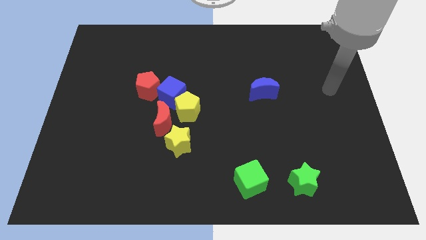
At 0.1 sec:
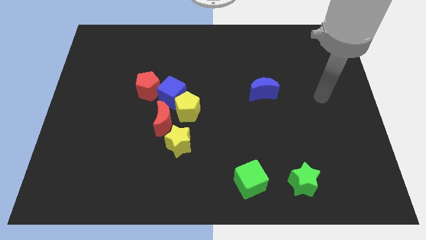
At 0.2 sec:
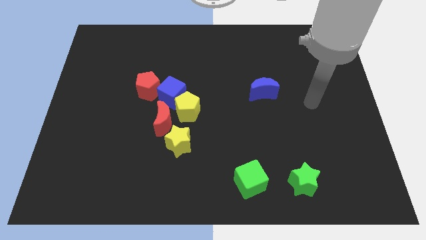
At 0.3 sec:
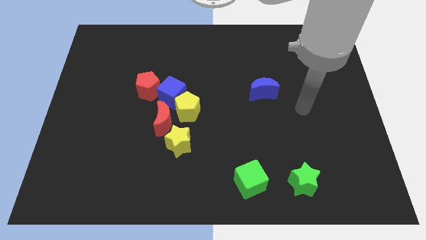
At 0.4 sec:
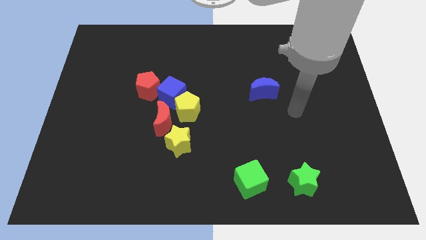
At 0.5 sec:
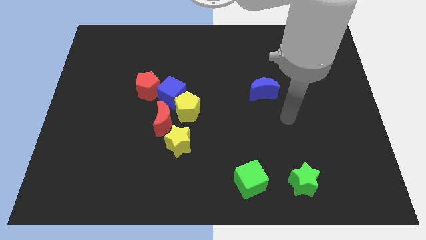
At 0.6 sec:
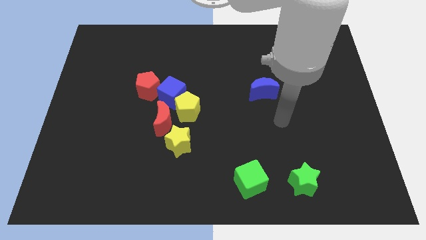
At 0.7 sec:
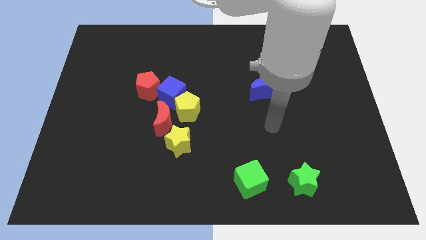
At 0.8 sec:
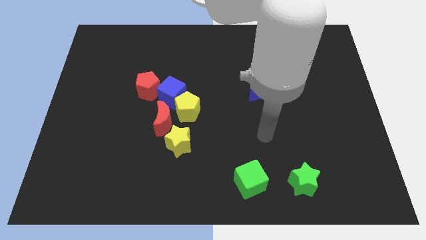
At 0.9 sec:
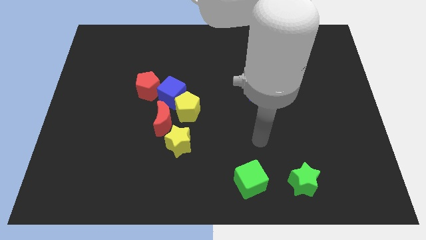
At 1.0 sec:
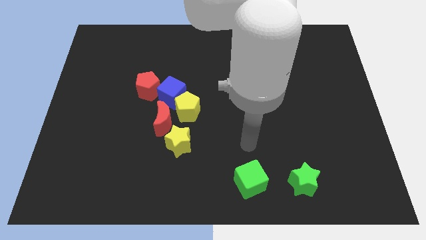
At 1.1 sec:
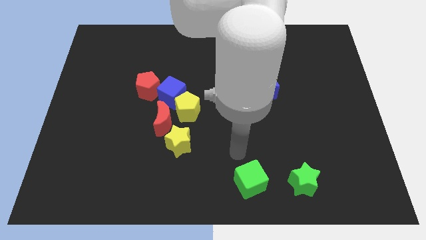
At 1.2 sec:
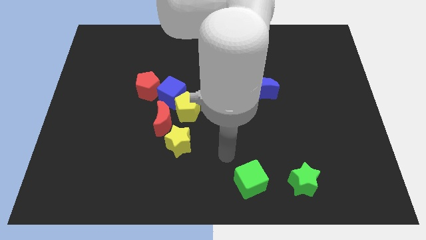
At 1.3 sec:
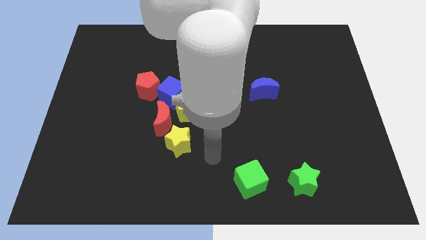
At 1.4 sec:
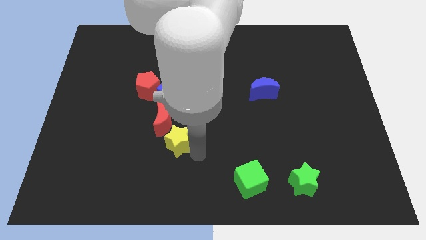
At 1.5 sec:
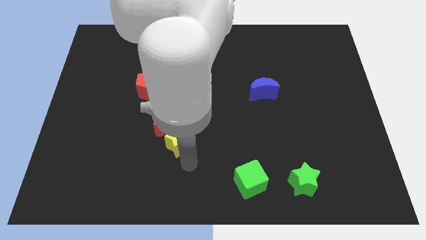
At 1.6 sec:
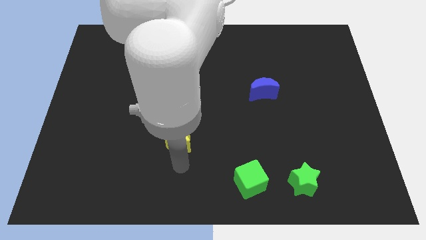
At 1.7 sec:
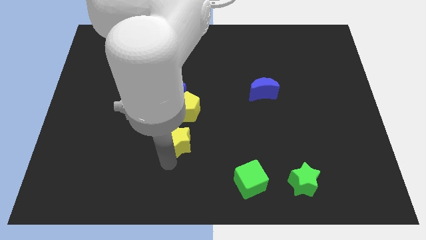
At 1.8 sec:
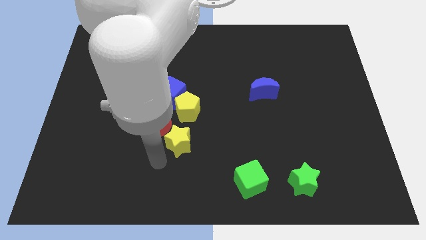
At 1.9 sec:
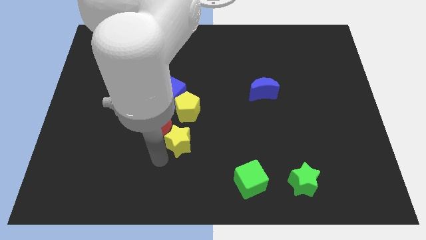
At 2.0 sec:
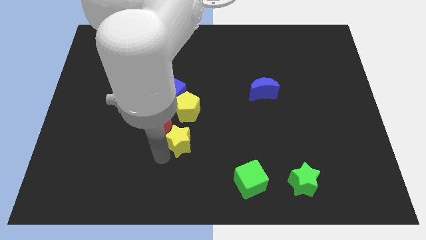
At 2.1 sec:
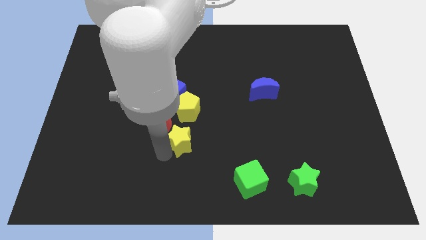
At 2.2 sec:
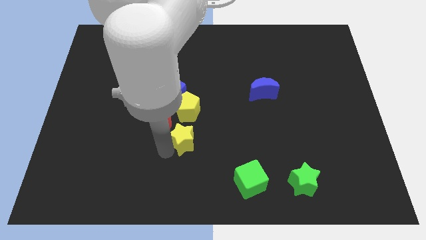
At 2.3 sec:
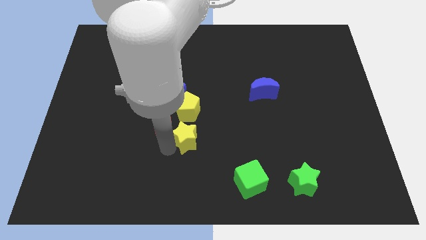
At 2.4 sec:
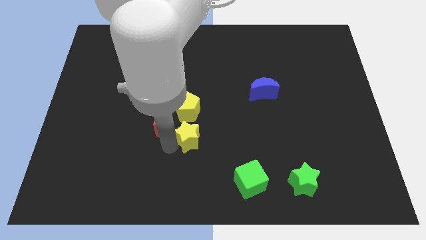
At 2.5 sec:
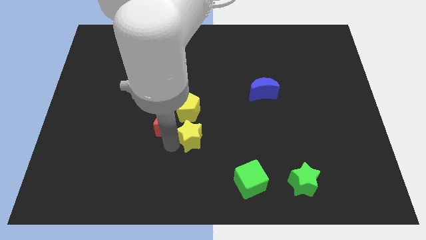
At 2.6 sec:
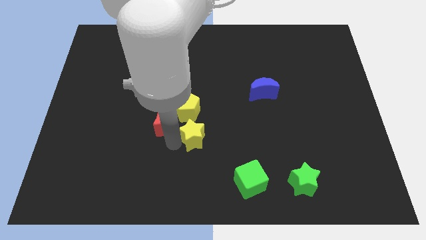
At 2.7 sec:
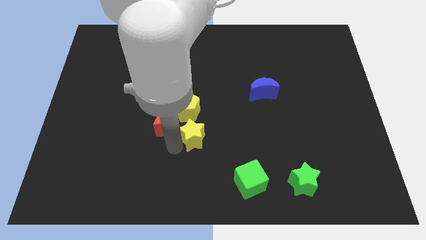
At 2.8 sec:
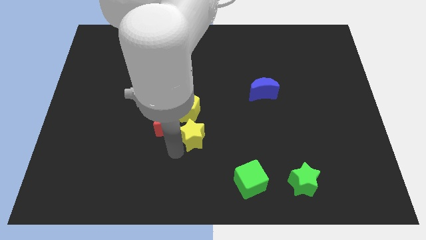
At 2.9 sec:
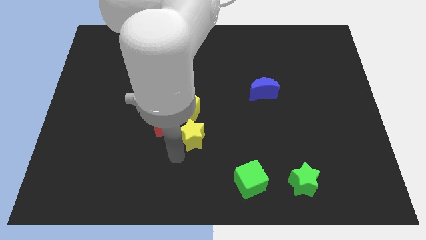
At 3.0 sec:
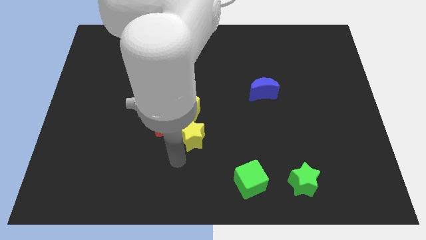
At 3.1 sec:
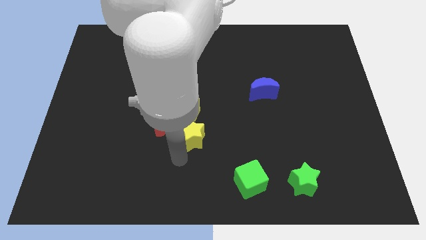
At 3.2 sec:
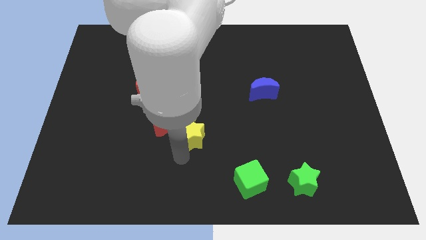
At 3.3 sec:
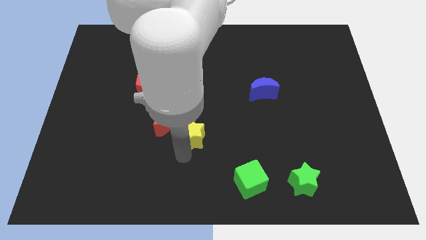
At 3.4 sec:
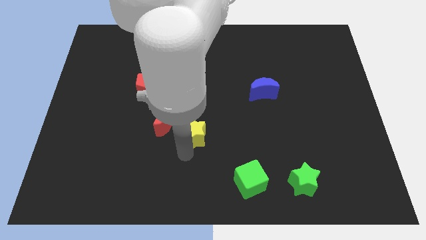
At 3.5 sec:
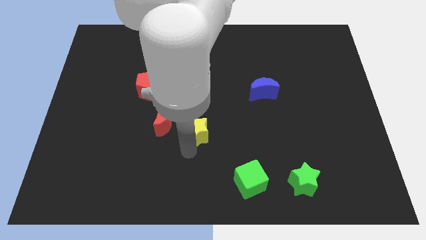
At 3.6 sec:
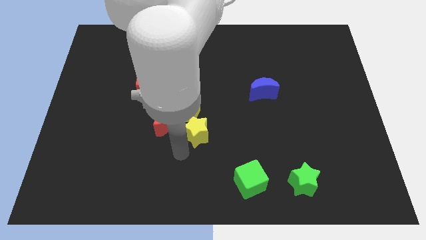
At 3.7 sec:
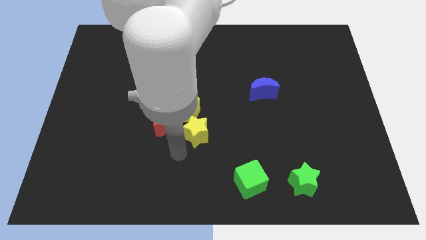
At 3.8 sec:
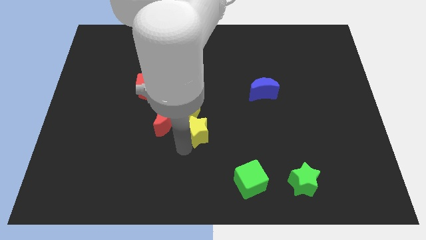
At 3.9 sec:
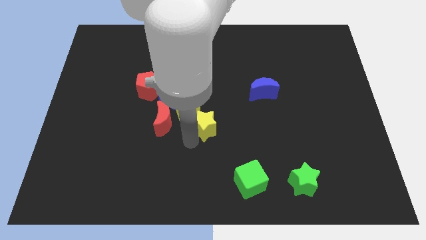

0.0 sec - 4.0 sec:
slightly push the yellow star diagonally upwards and right

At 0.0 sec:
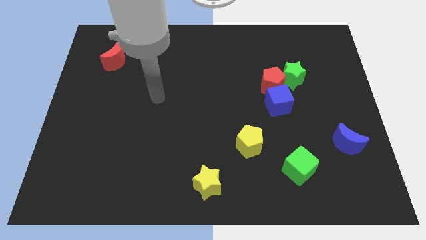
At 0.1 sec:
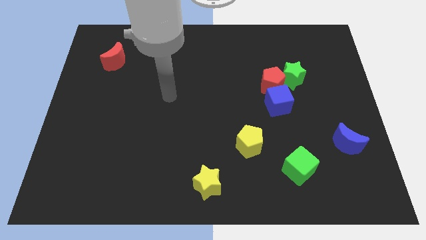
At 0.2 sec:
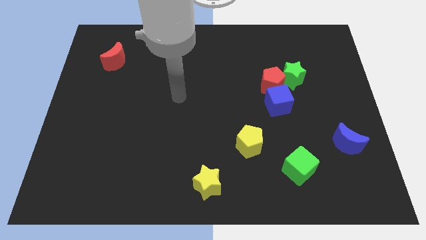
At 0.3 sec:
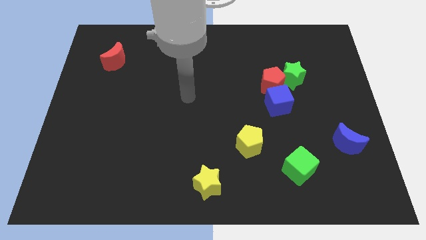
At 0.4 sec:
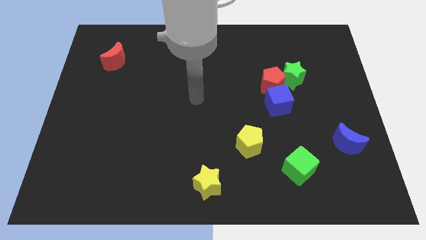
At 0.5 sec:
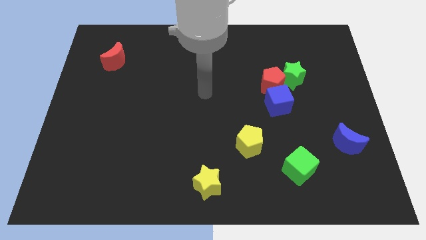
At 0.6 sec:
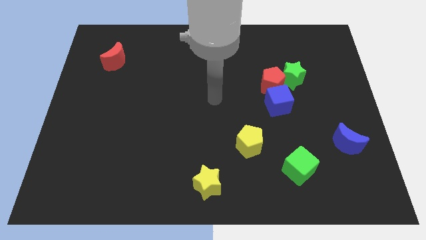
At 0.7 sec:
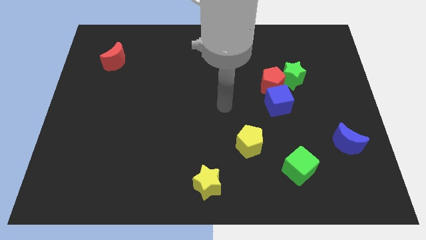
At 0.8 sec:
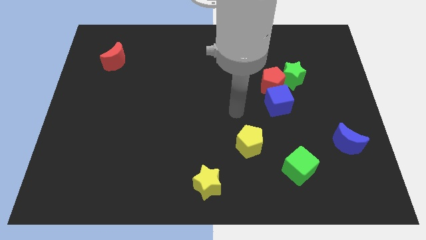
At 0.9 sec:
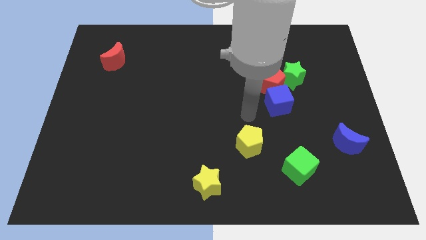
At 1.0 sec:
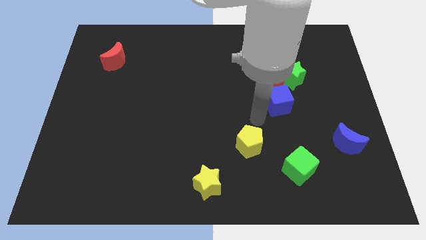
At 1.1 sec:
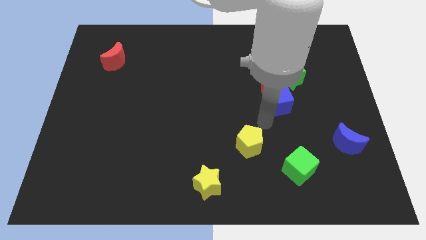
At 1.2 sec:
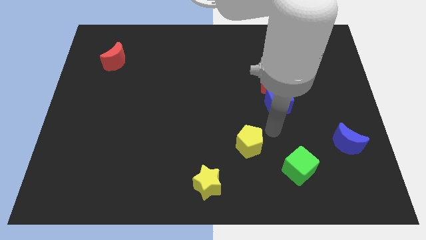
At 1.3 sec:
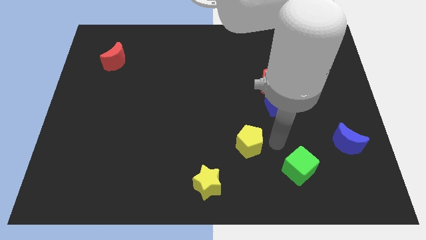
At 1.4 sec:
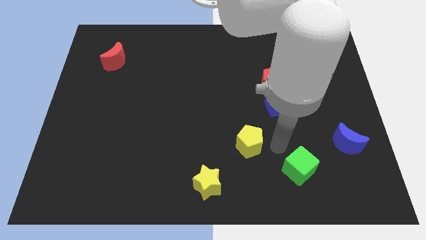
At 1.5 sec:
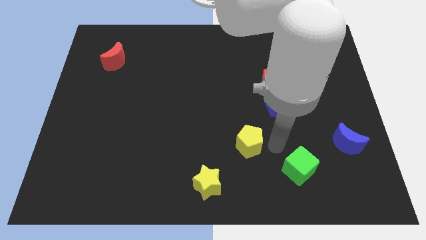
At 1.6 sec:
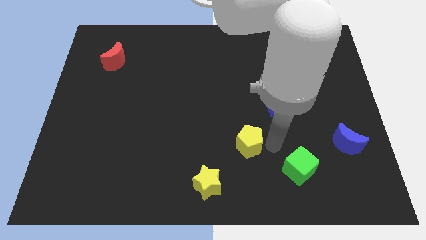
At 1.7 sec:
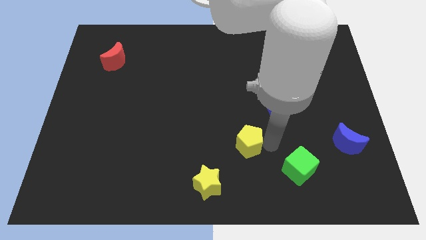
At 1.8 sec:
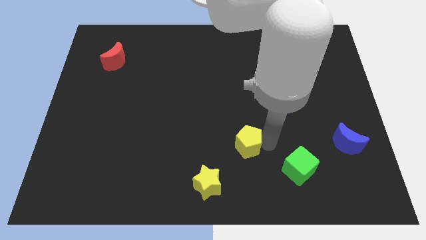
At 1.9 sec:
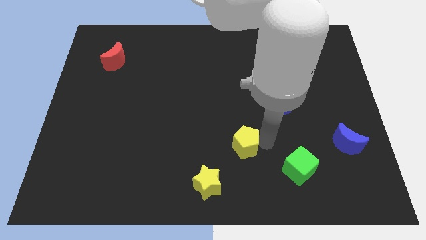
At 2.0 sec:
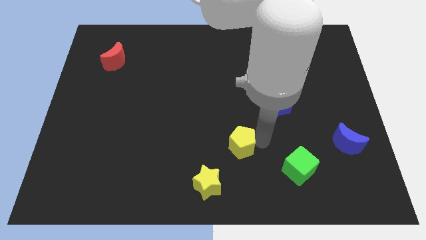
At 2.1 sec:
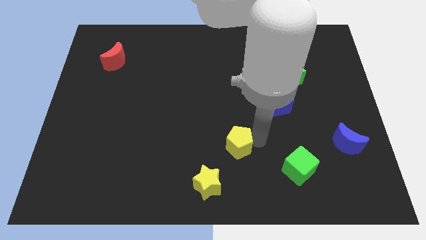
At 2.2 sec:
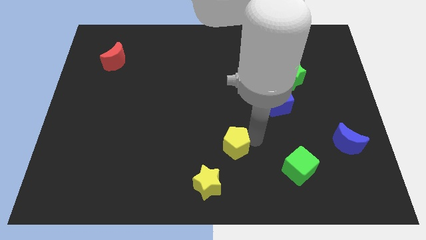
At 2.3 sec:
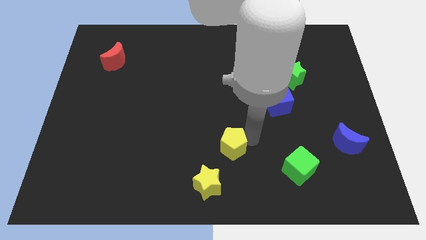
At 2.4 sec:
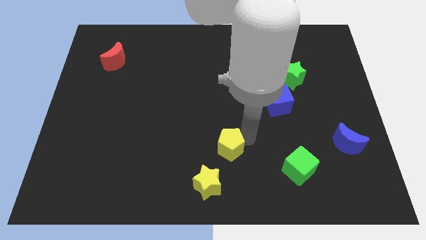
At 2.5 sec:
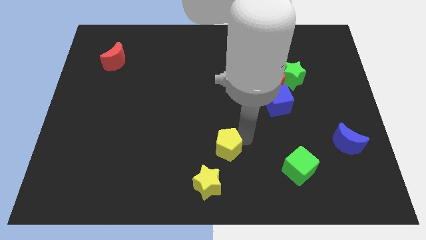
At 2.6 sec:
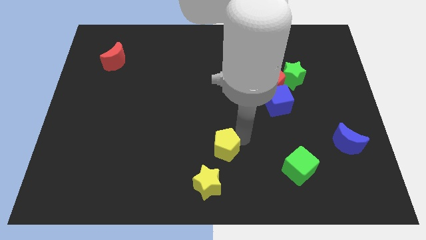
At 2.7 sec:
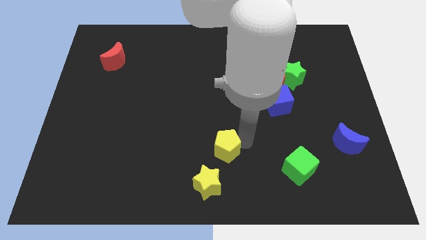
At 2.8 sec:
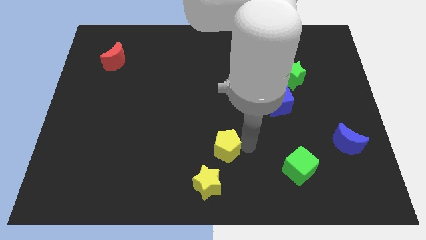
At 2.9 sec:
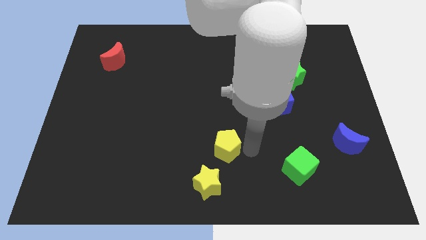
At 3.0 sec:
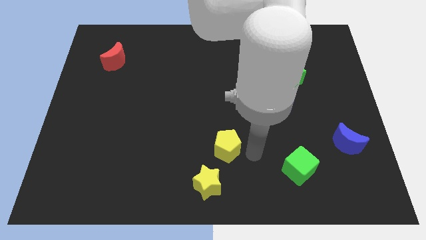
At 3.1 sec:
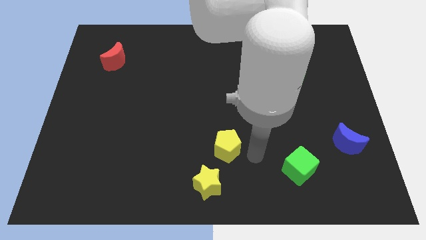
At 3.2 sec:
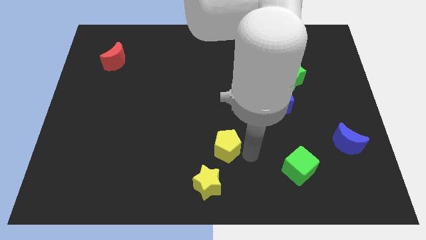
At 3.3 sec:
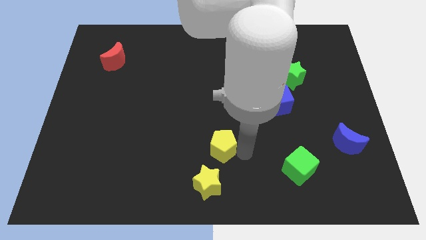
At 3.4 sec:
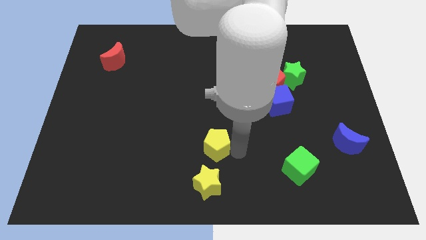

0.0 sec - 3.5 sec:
move the yellow pentagon a bit left

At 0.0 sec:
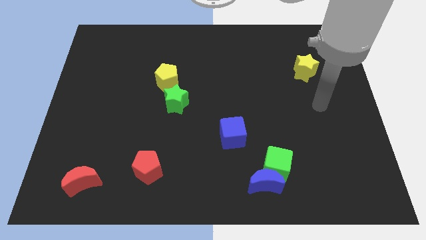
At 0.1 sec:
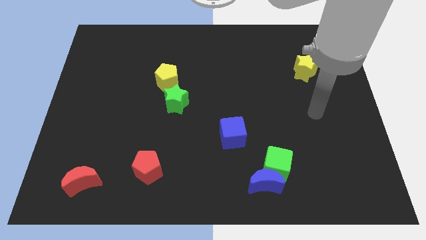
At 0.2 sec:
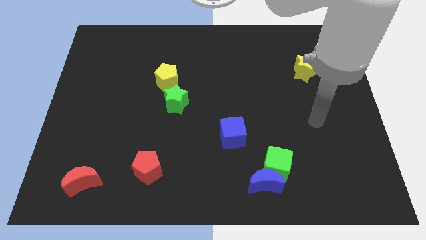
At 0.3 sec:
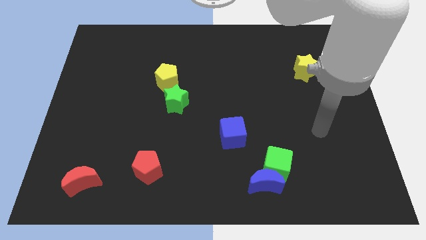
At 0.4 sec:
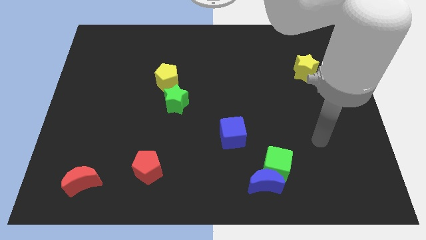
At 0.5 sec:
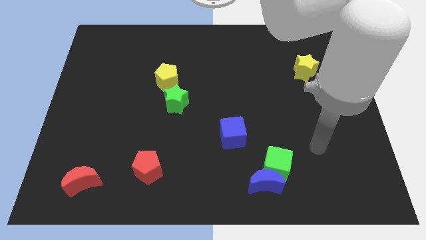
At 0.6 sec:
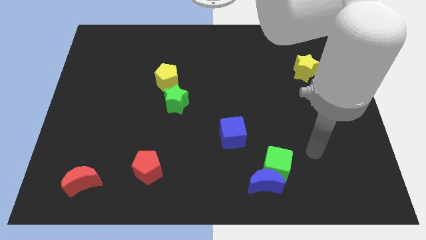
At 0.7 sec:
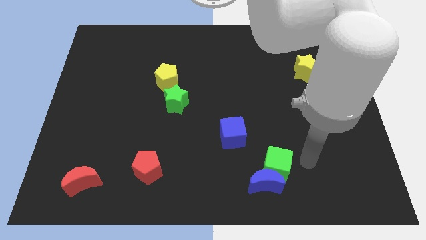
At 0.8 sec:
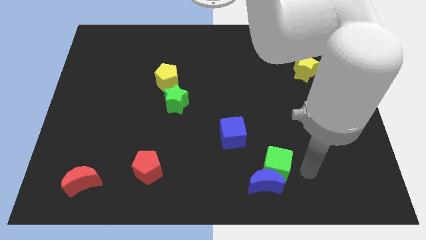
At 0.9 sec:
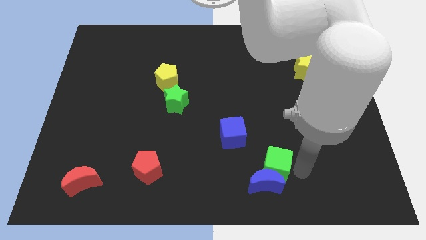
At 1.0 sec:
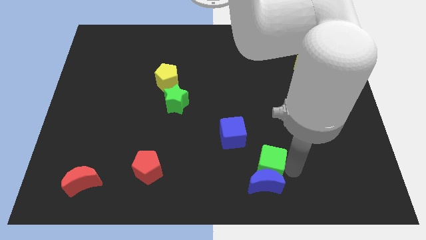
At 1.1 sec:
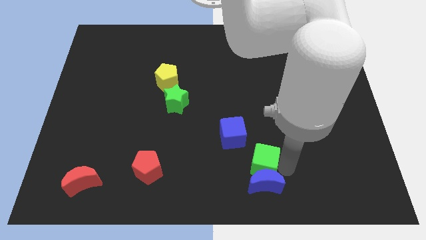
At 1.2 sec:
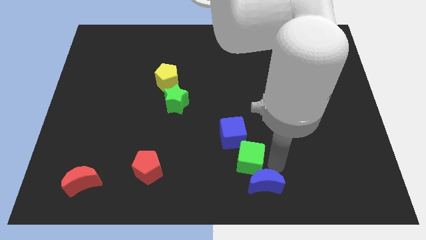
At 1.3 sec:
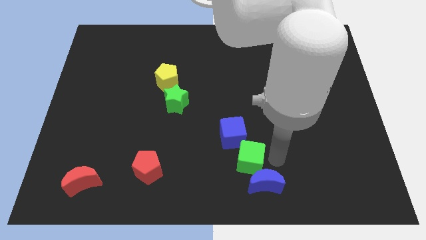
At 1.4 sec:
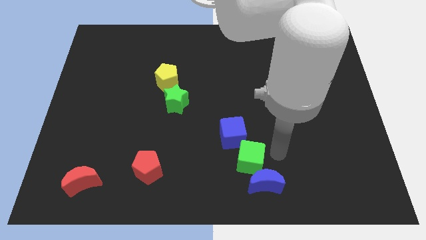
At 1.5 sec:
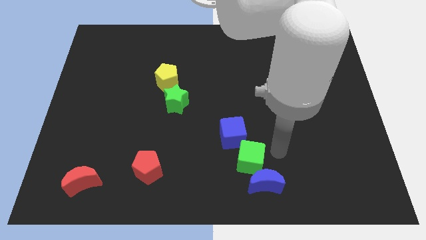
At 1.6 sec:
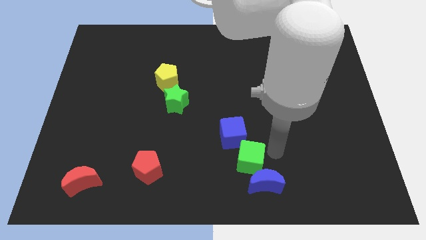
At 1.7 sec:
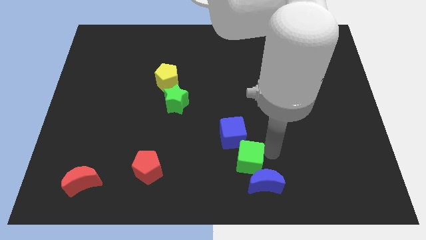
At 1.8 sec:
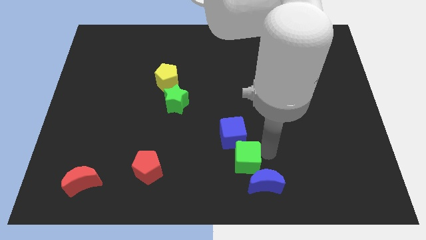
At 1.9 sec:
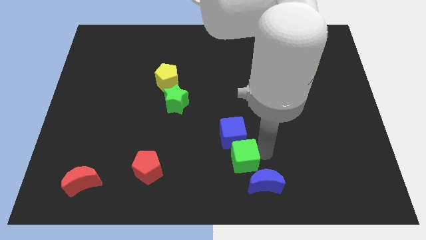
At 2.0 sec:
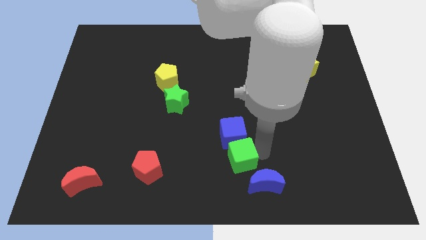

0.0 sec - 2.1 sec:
move the green cube a little left
